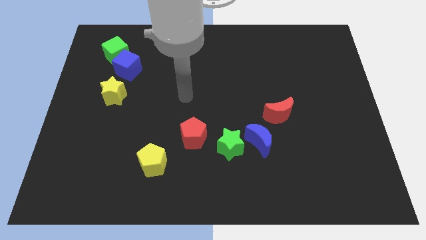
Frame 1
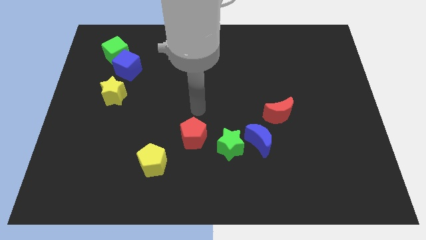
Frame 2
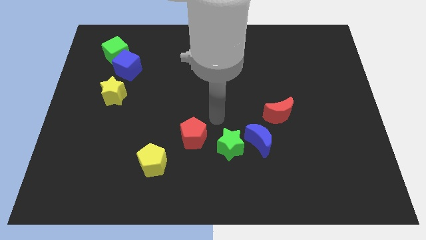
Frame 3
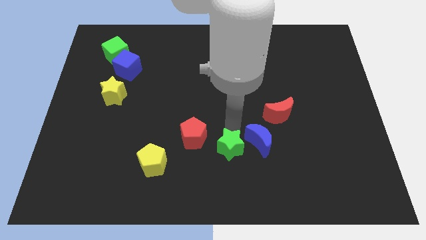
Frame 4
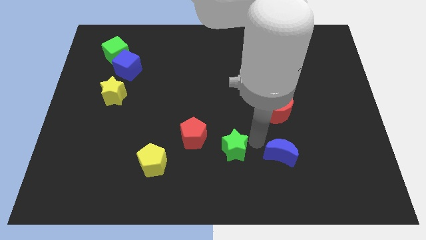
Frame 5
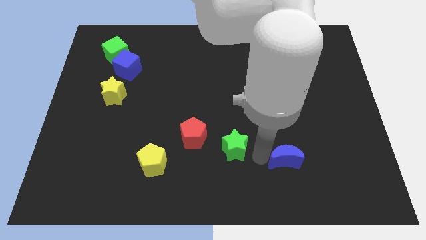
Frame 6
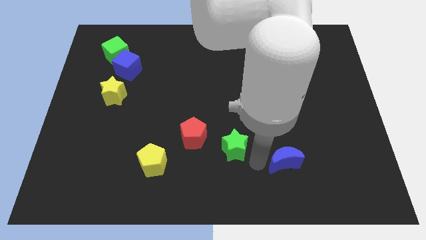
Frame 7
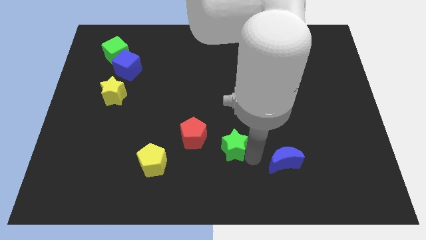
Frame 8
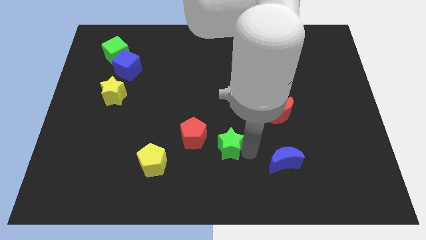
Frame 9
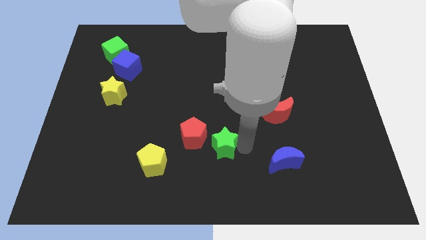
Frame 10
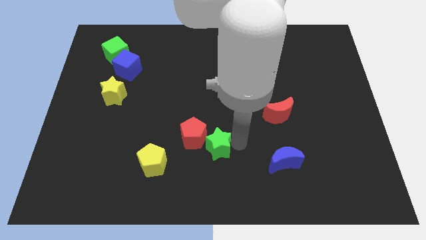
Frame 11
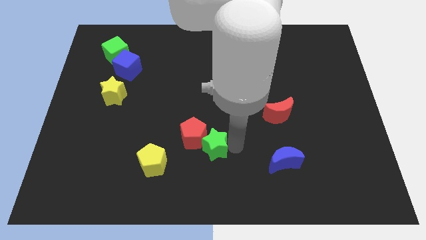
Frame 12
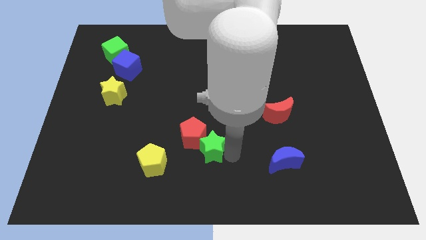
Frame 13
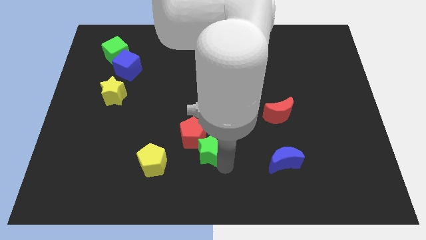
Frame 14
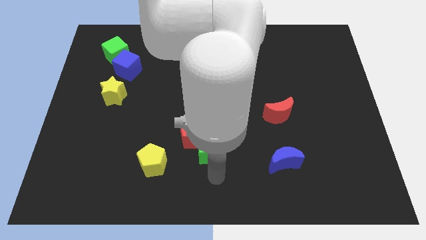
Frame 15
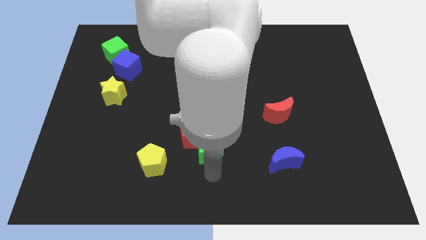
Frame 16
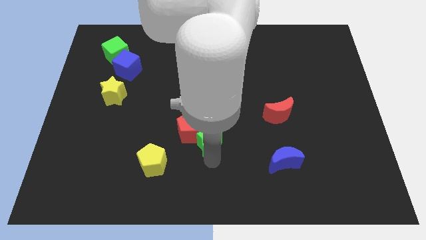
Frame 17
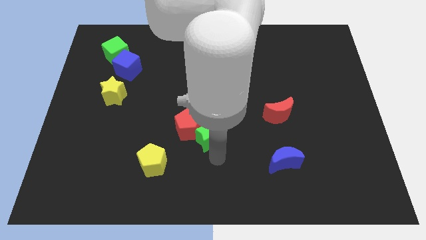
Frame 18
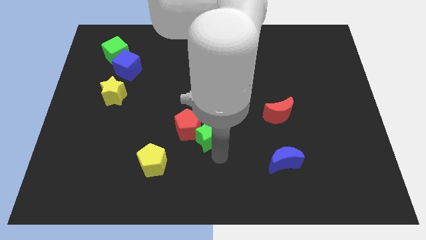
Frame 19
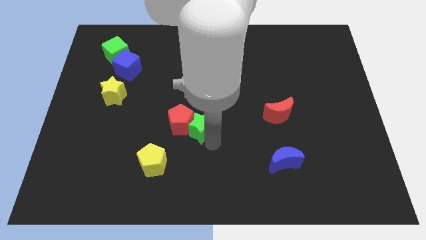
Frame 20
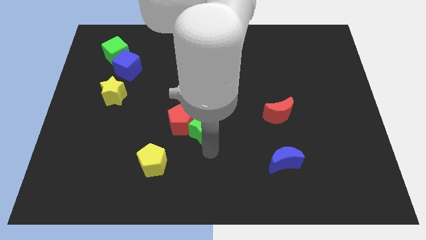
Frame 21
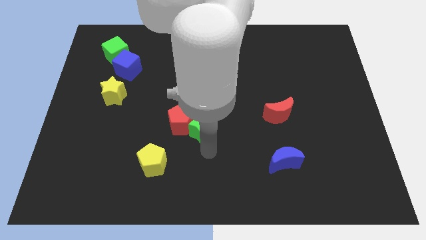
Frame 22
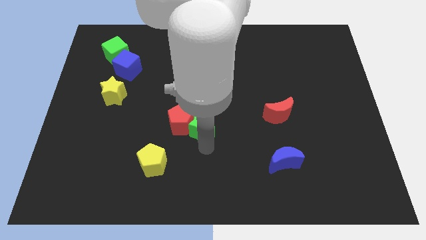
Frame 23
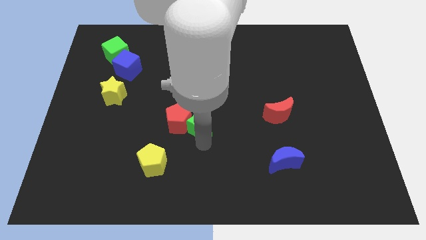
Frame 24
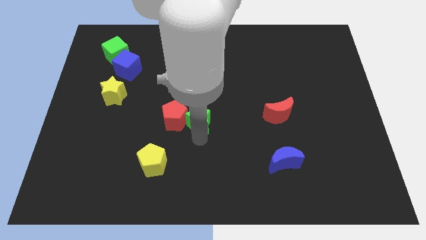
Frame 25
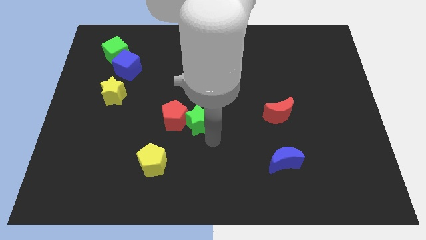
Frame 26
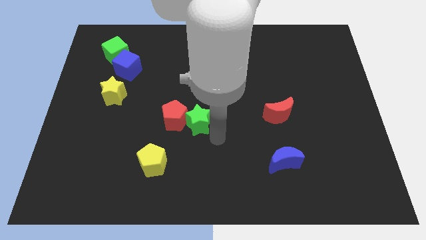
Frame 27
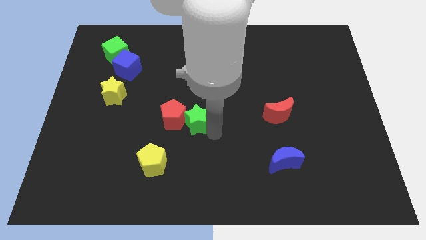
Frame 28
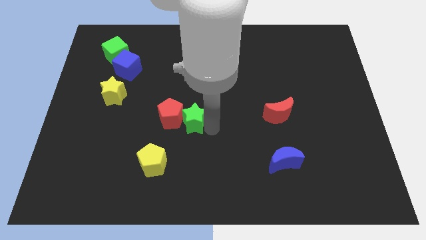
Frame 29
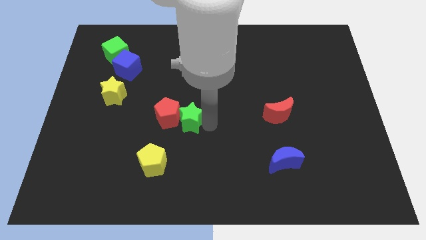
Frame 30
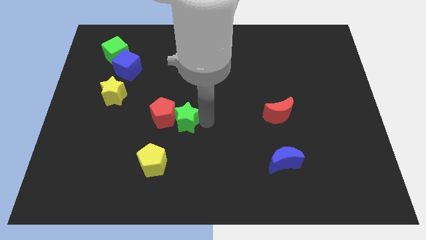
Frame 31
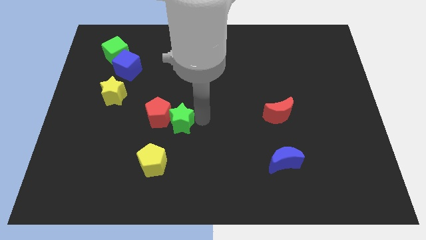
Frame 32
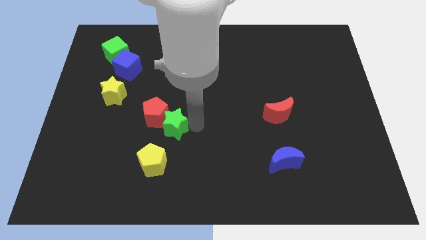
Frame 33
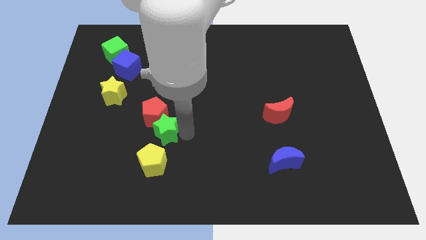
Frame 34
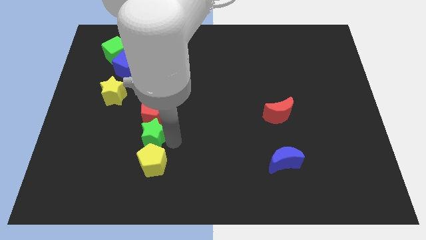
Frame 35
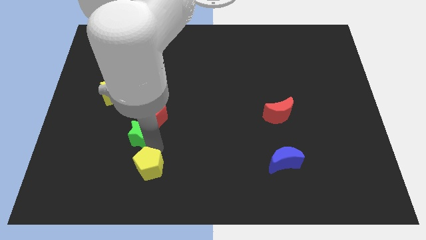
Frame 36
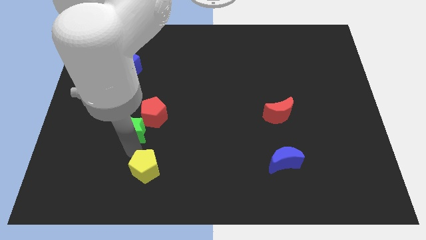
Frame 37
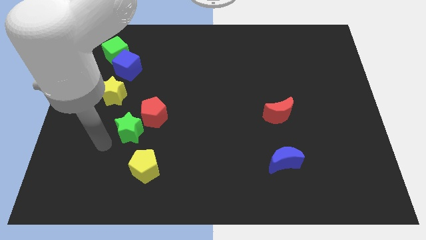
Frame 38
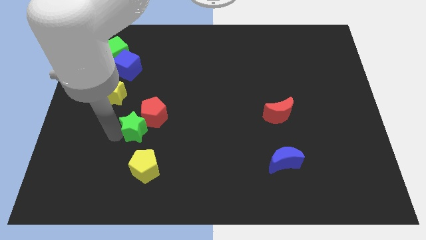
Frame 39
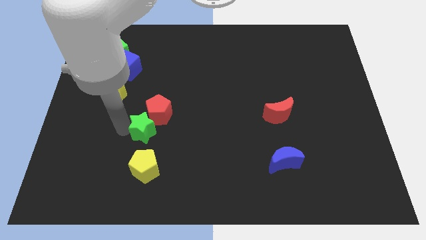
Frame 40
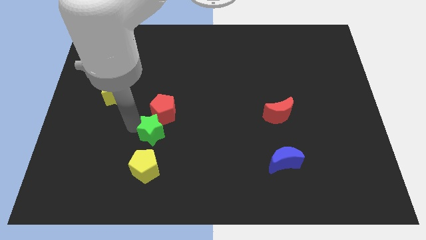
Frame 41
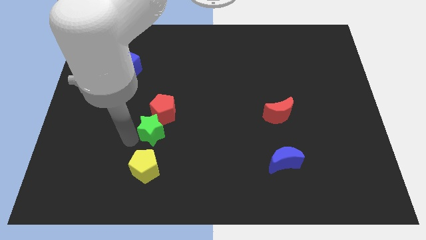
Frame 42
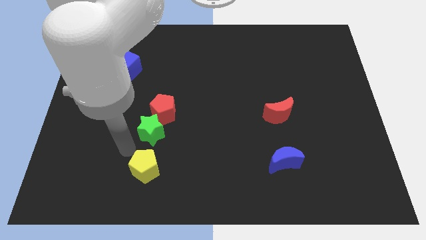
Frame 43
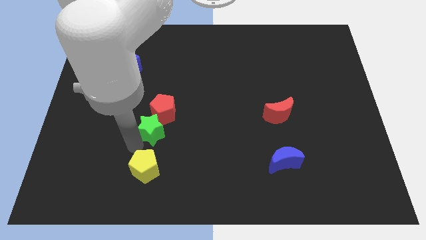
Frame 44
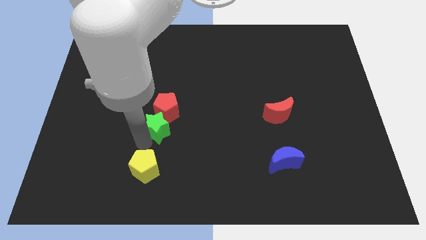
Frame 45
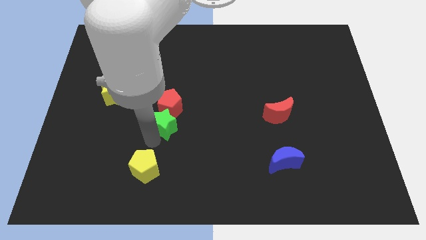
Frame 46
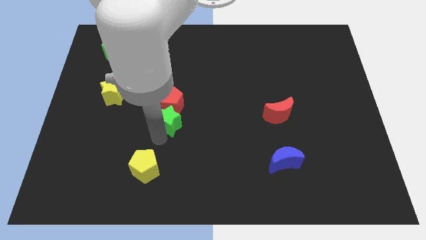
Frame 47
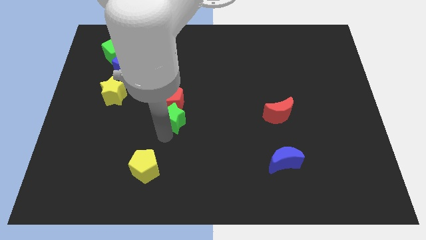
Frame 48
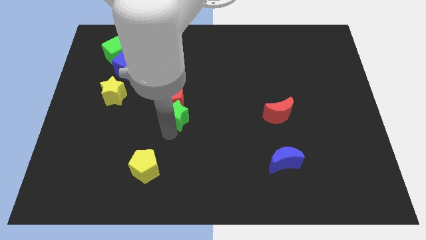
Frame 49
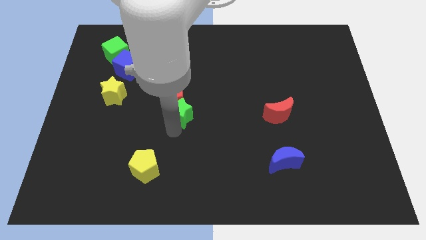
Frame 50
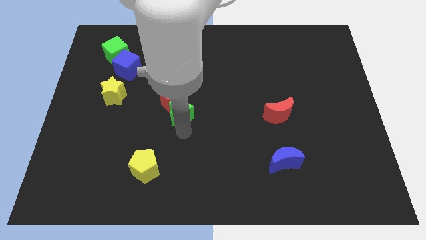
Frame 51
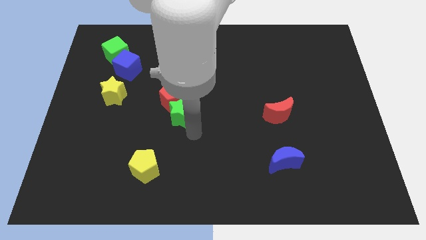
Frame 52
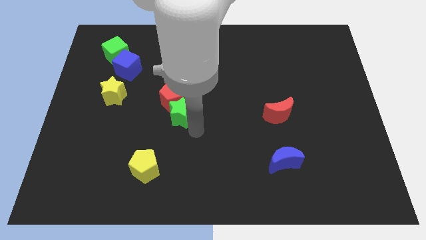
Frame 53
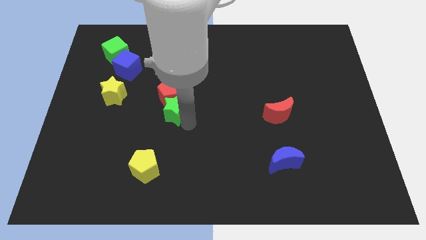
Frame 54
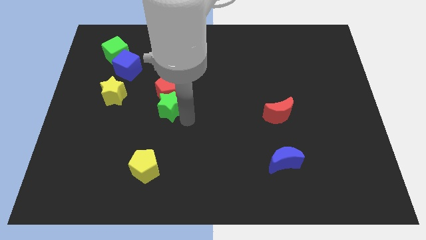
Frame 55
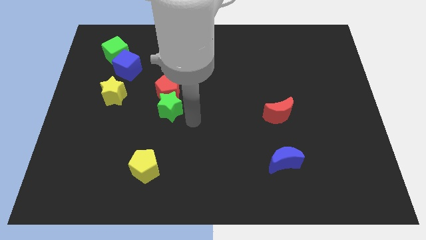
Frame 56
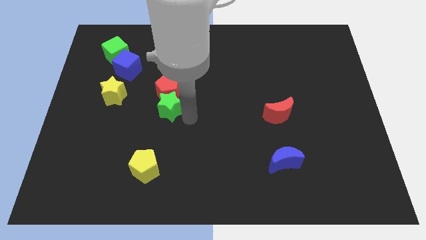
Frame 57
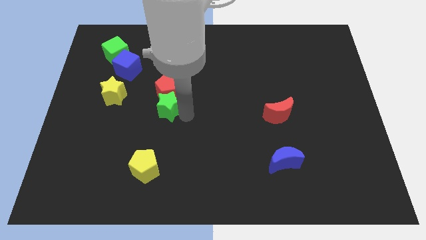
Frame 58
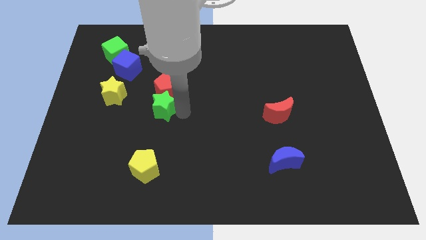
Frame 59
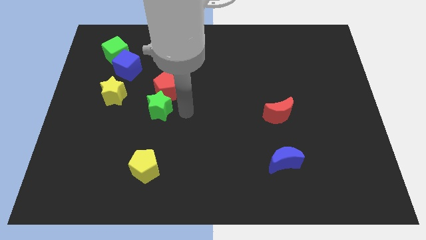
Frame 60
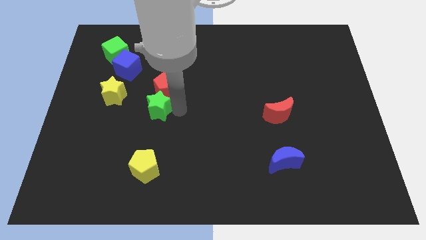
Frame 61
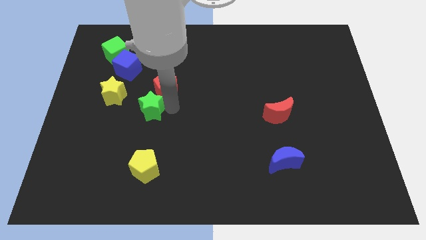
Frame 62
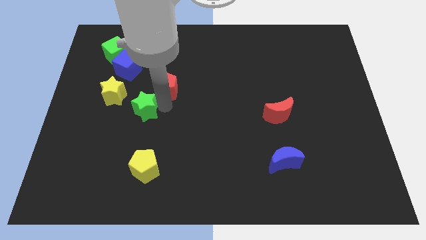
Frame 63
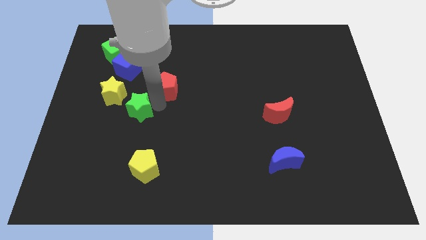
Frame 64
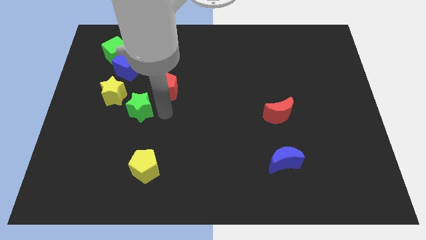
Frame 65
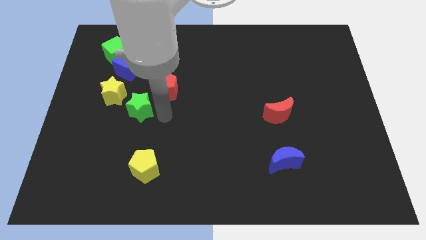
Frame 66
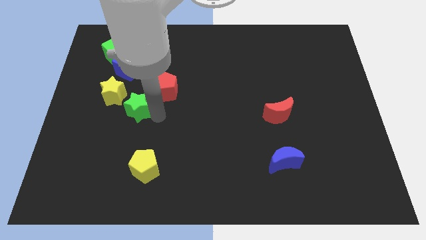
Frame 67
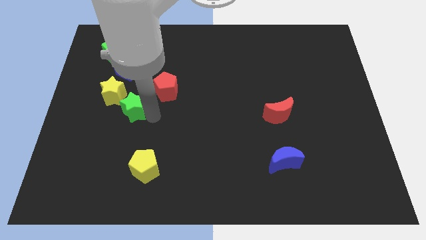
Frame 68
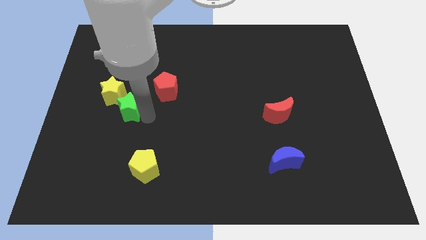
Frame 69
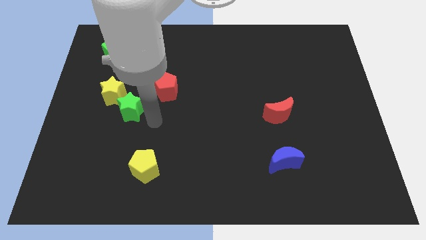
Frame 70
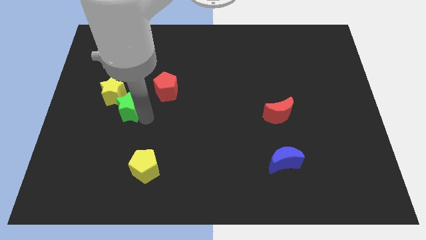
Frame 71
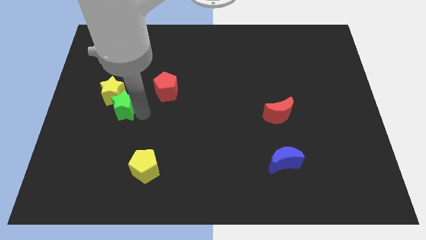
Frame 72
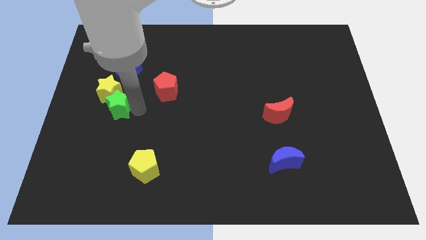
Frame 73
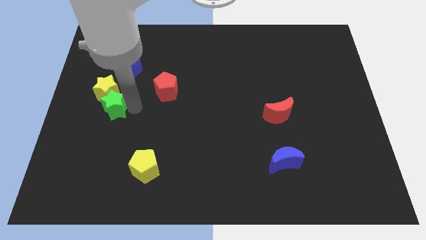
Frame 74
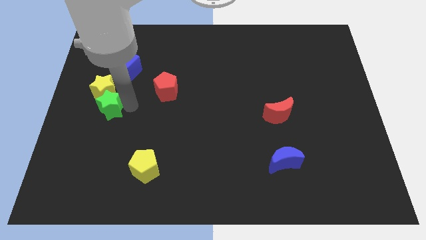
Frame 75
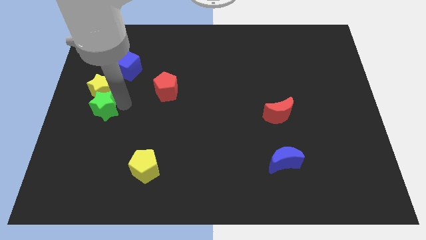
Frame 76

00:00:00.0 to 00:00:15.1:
move the green star to the left side of the board
